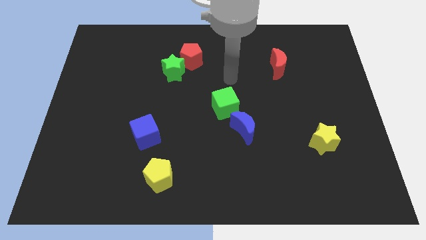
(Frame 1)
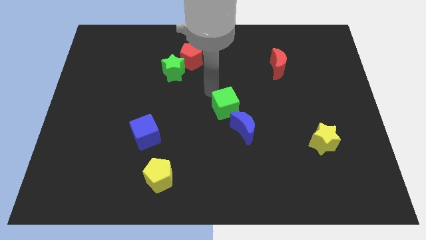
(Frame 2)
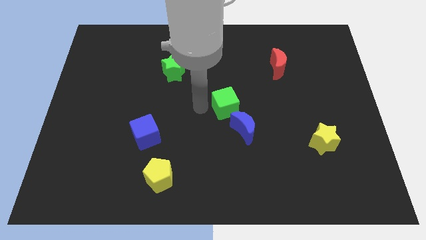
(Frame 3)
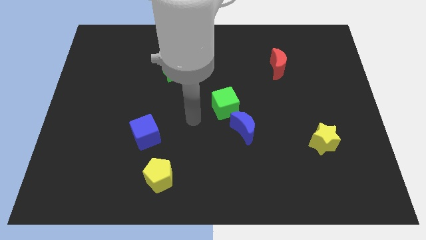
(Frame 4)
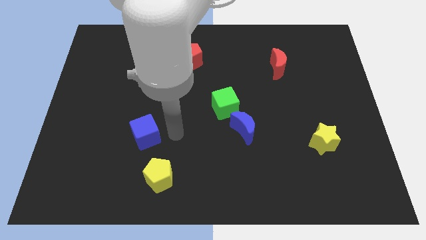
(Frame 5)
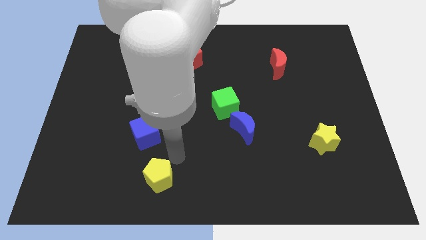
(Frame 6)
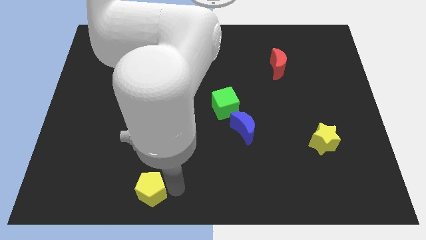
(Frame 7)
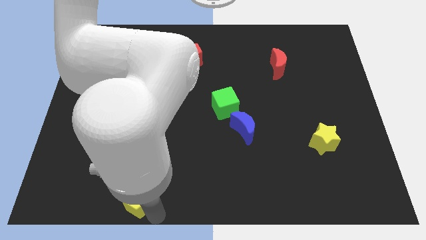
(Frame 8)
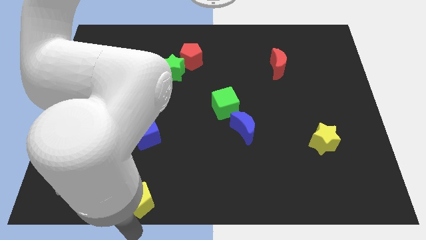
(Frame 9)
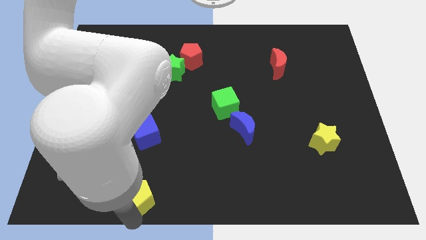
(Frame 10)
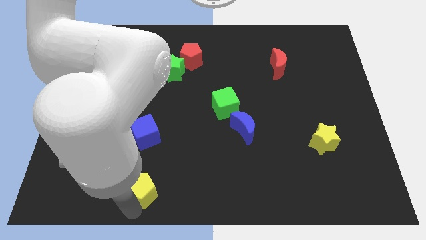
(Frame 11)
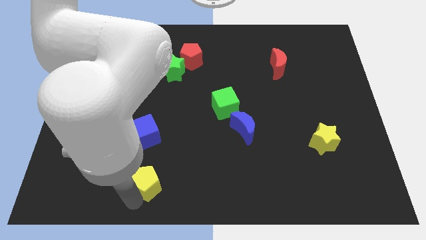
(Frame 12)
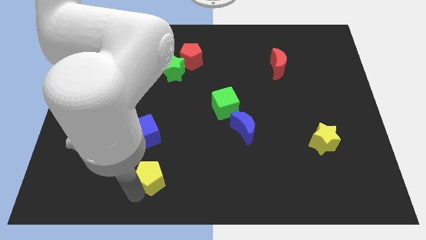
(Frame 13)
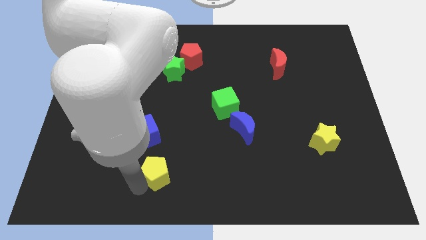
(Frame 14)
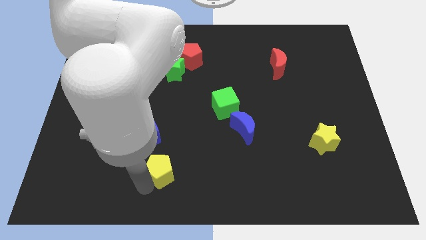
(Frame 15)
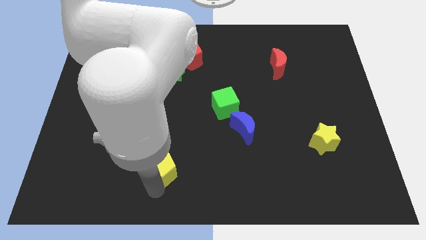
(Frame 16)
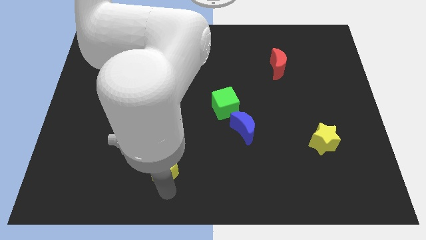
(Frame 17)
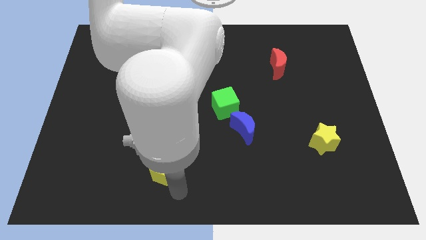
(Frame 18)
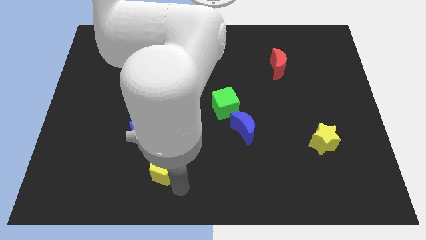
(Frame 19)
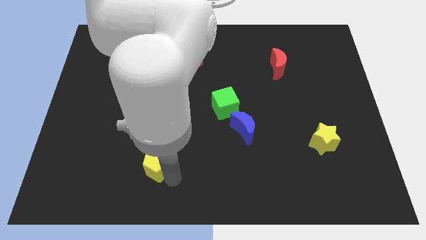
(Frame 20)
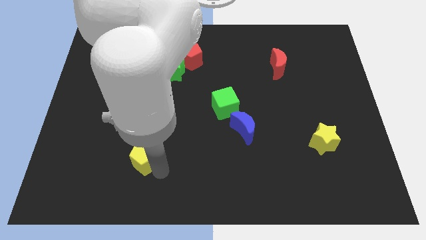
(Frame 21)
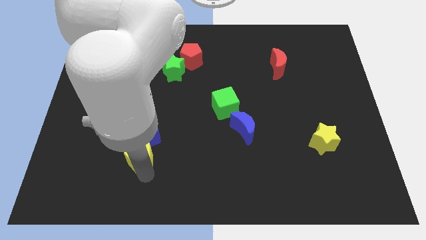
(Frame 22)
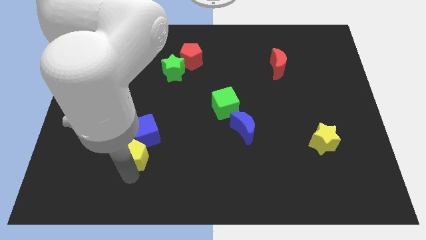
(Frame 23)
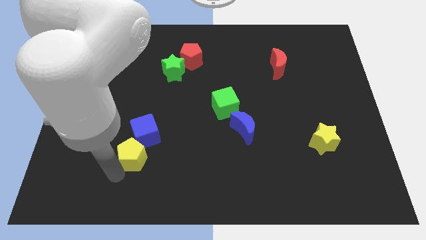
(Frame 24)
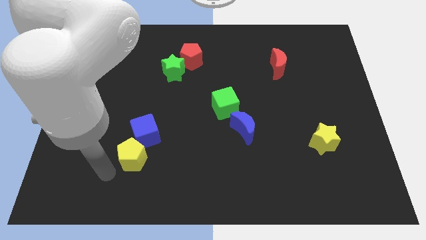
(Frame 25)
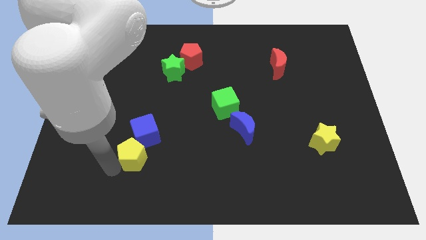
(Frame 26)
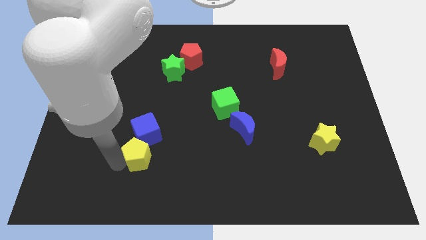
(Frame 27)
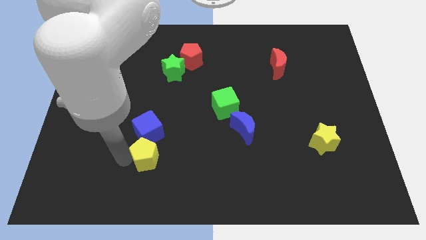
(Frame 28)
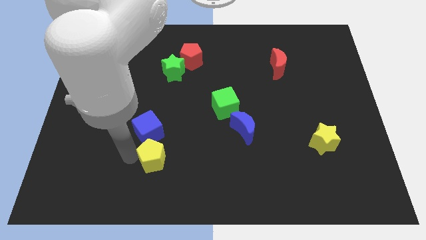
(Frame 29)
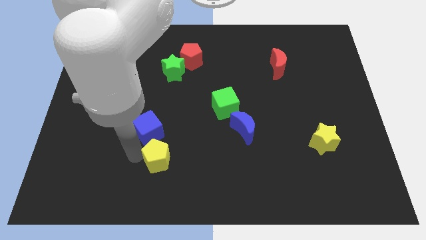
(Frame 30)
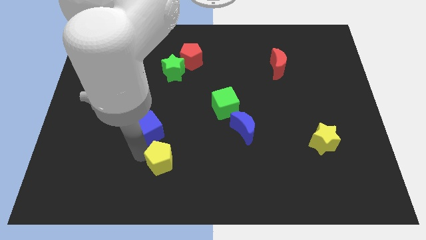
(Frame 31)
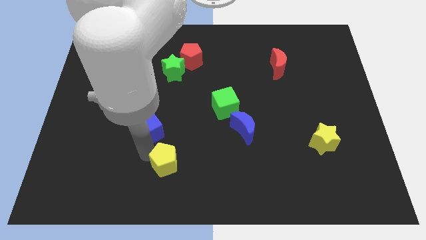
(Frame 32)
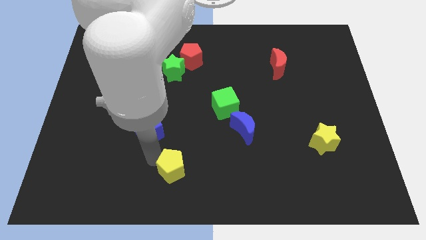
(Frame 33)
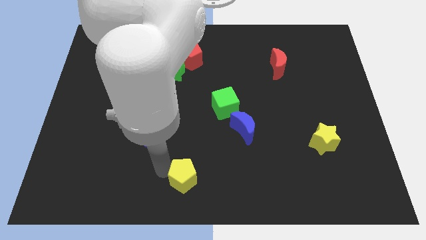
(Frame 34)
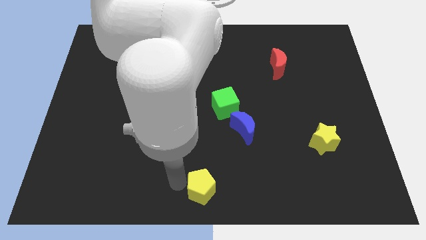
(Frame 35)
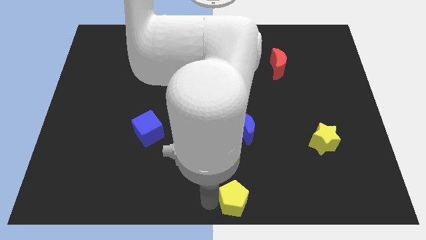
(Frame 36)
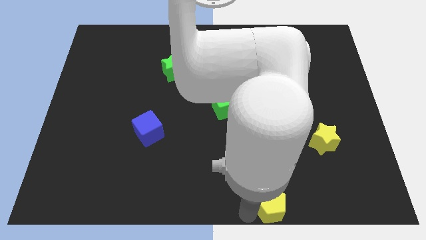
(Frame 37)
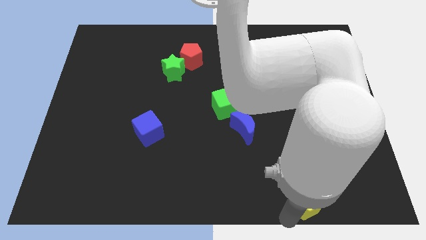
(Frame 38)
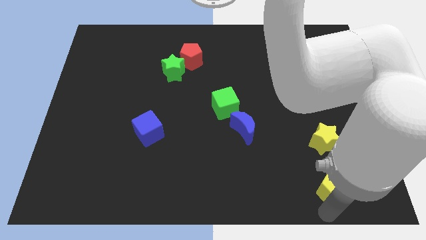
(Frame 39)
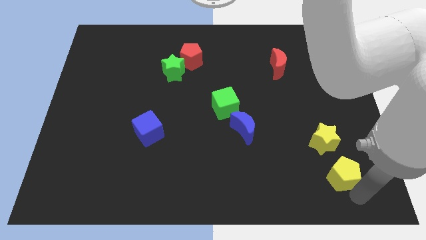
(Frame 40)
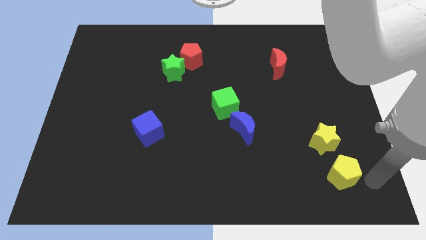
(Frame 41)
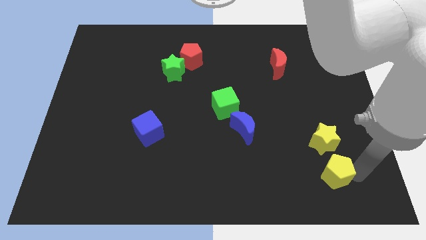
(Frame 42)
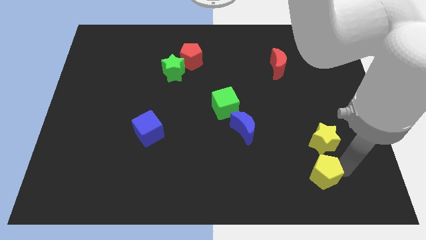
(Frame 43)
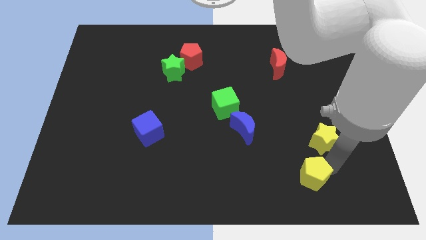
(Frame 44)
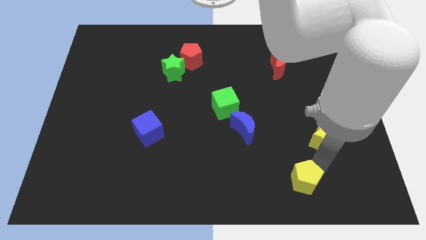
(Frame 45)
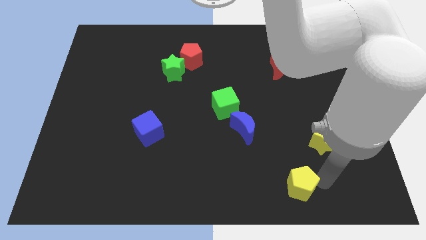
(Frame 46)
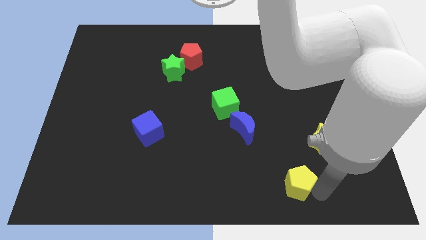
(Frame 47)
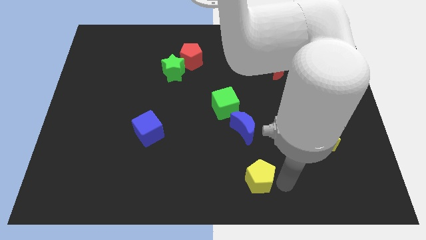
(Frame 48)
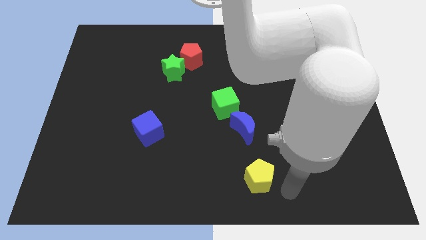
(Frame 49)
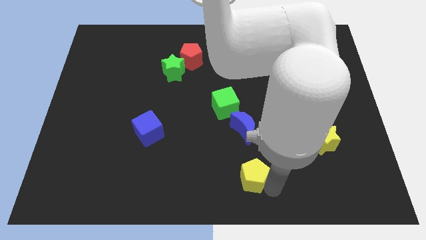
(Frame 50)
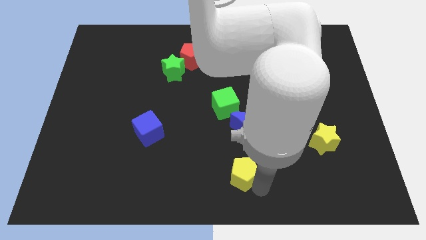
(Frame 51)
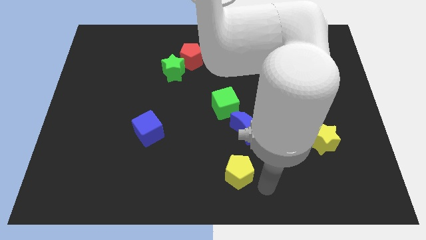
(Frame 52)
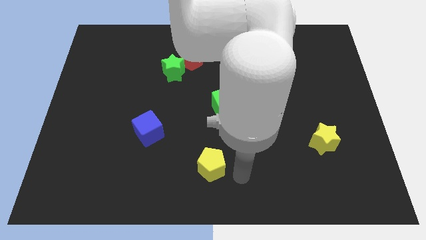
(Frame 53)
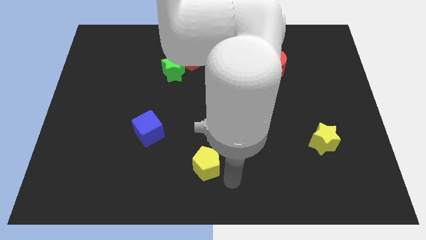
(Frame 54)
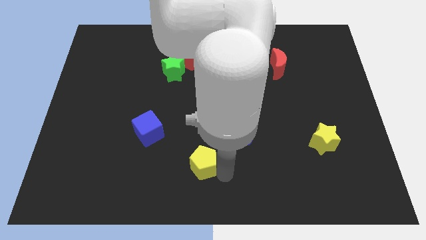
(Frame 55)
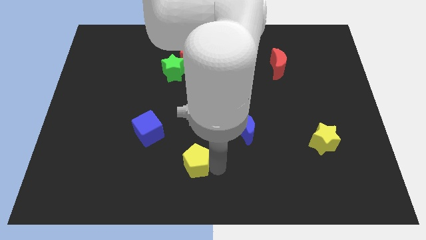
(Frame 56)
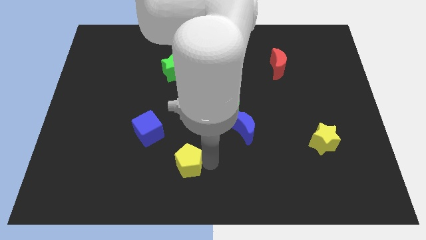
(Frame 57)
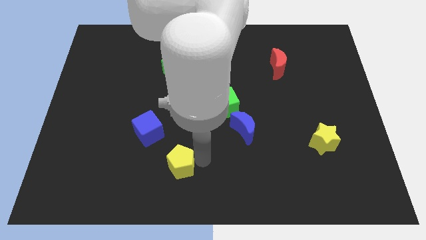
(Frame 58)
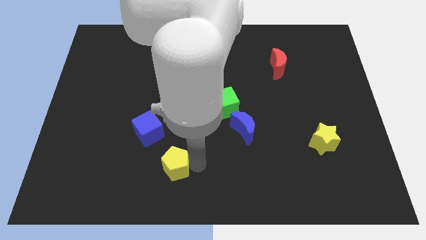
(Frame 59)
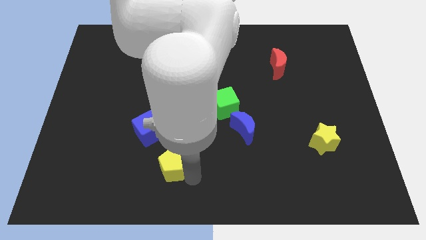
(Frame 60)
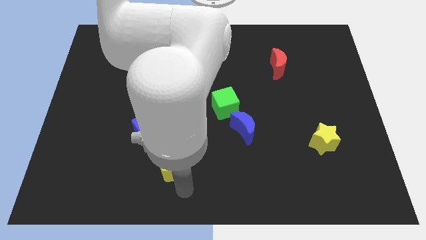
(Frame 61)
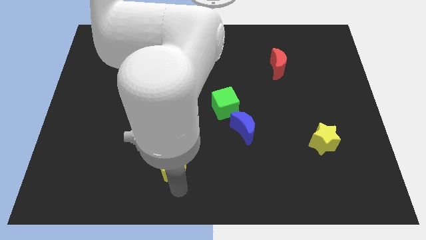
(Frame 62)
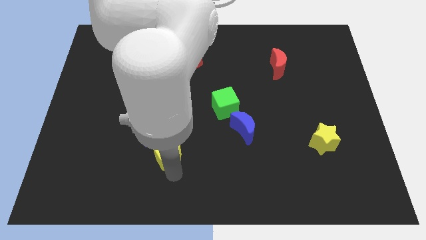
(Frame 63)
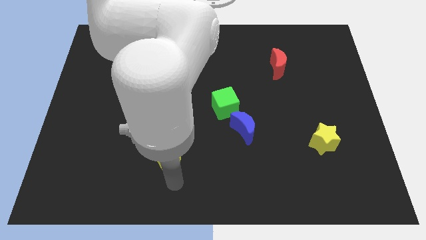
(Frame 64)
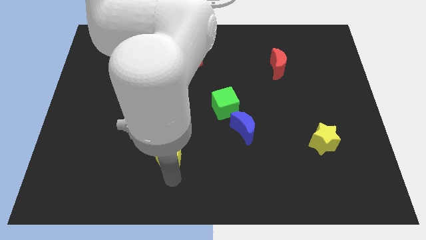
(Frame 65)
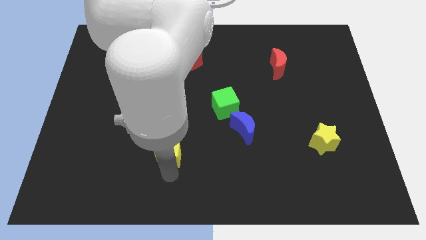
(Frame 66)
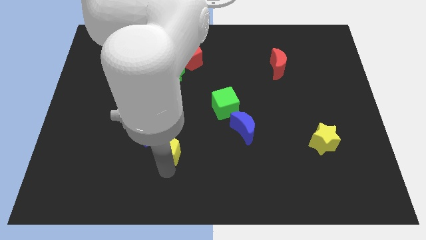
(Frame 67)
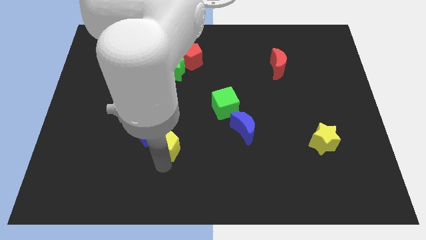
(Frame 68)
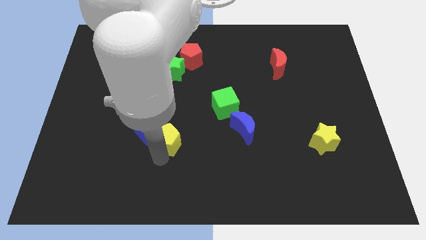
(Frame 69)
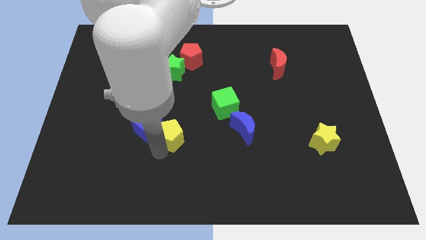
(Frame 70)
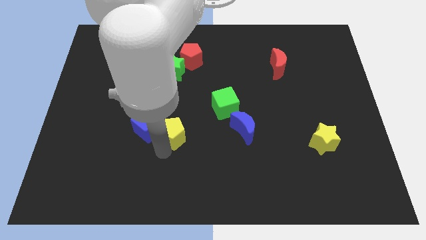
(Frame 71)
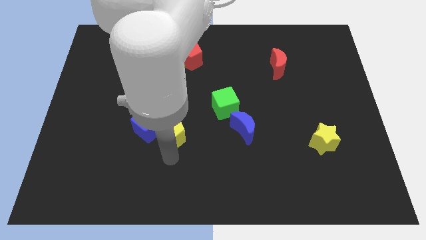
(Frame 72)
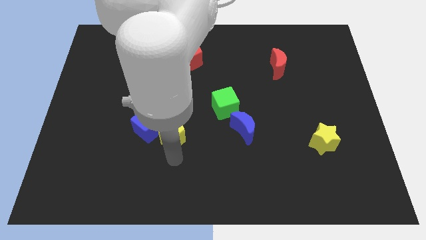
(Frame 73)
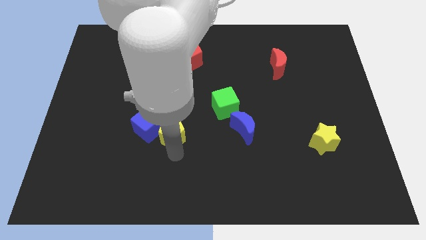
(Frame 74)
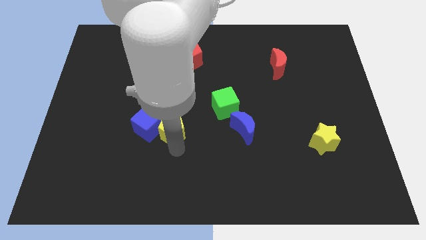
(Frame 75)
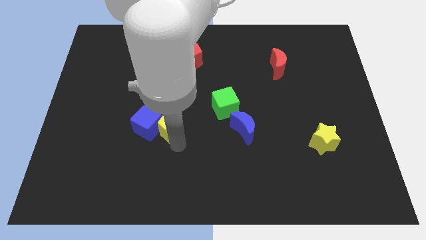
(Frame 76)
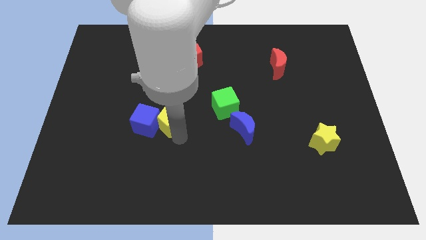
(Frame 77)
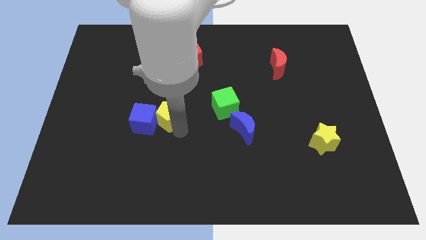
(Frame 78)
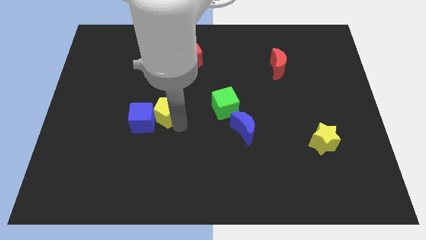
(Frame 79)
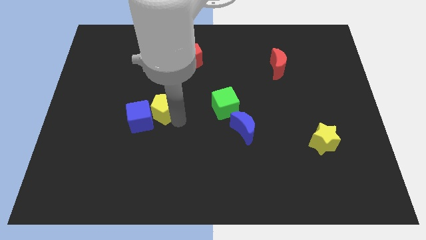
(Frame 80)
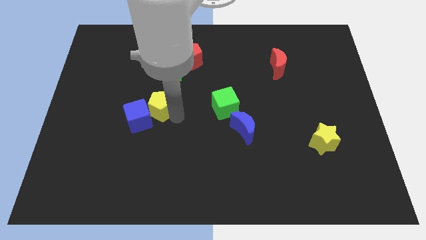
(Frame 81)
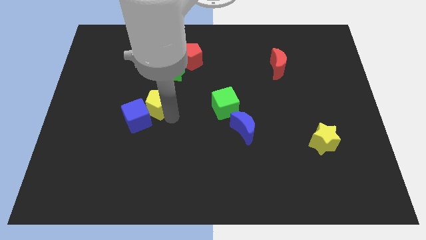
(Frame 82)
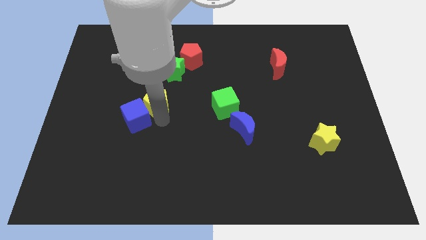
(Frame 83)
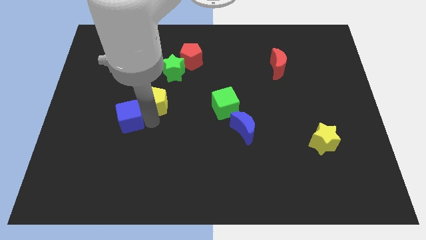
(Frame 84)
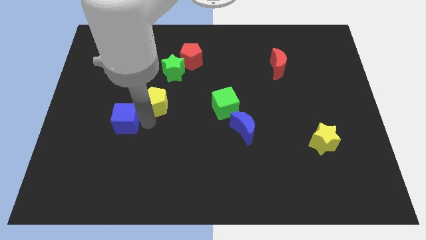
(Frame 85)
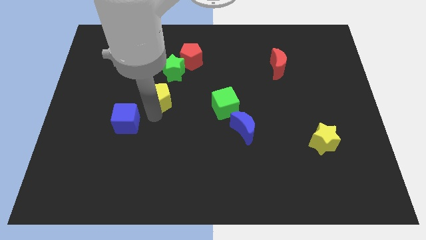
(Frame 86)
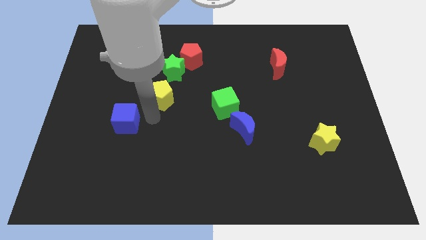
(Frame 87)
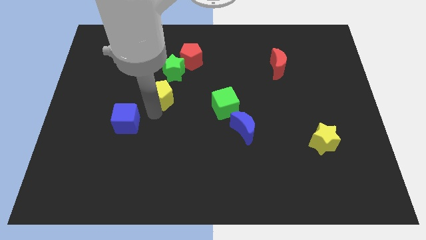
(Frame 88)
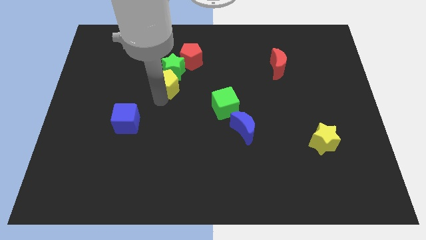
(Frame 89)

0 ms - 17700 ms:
slide the yellow pentagon close to the green star
